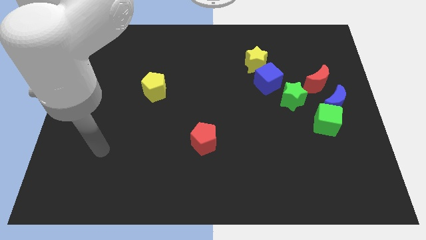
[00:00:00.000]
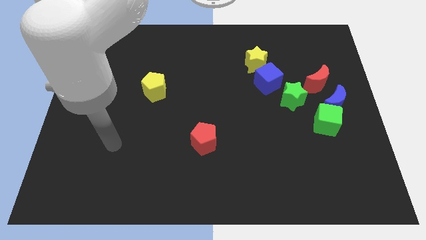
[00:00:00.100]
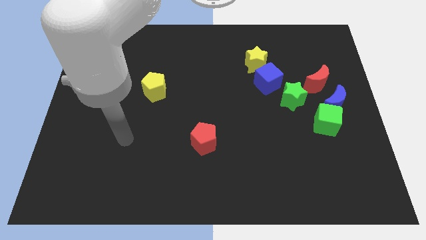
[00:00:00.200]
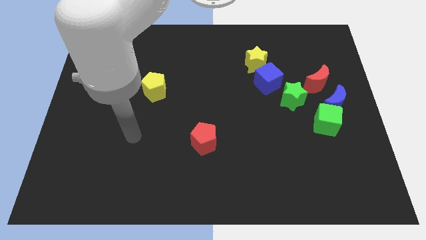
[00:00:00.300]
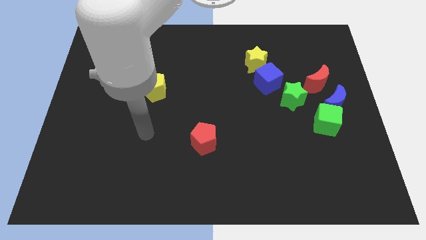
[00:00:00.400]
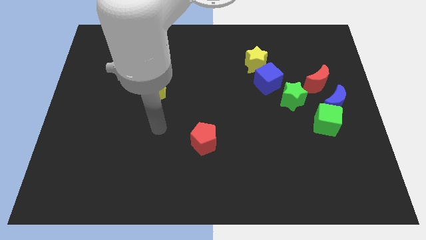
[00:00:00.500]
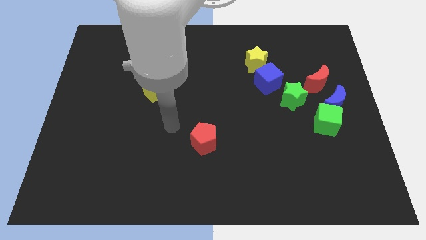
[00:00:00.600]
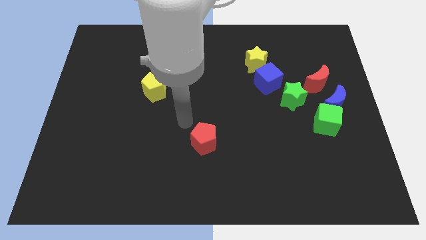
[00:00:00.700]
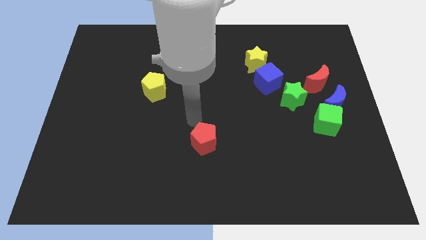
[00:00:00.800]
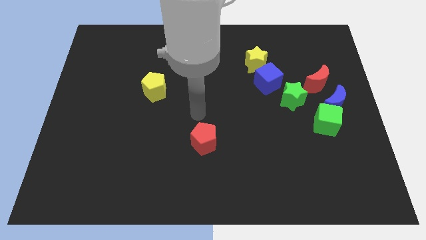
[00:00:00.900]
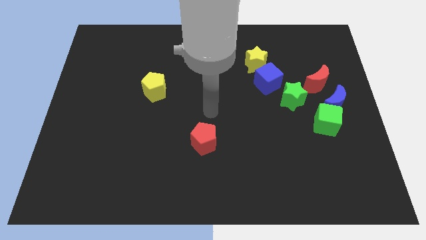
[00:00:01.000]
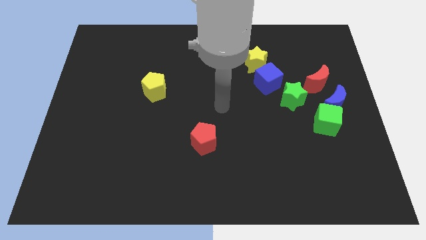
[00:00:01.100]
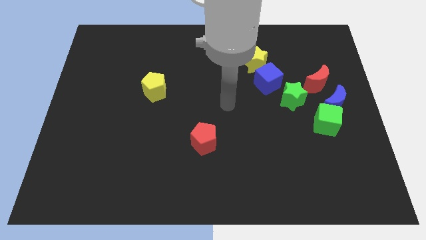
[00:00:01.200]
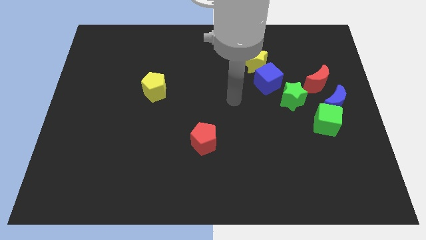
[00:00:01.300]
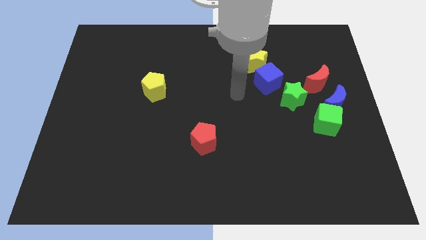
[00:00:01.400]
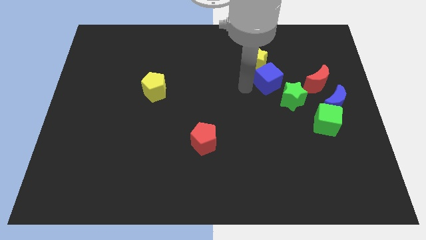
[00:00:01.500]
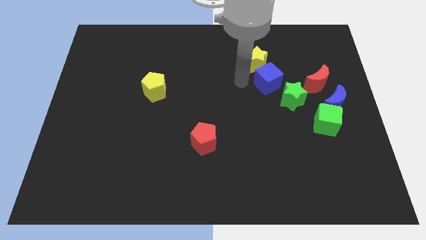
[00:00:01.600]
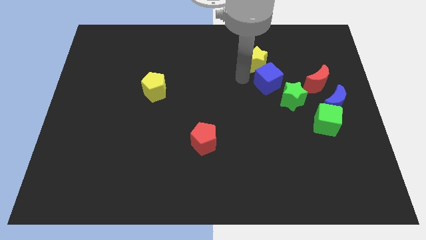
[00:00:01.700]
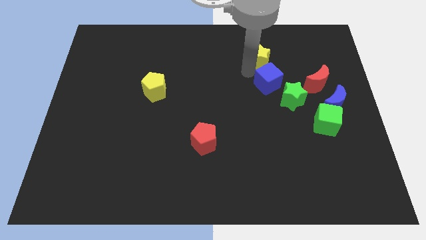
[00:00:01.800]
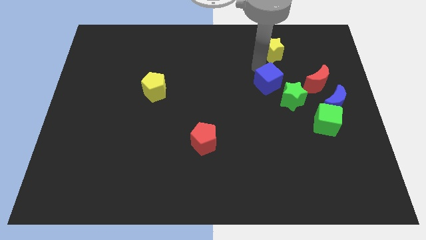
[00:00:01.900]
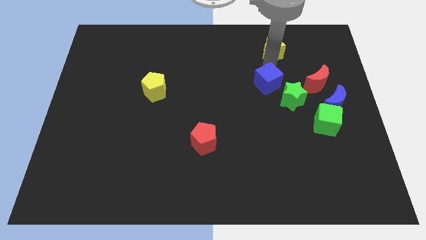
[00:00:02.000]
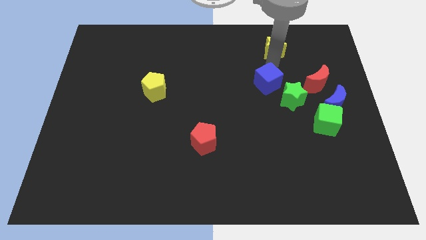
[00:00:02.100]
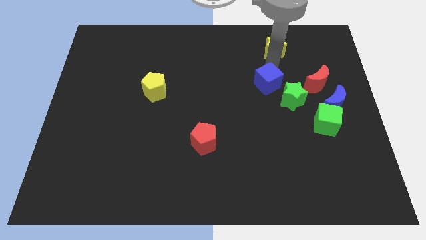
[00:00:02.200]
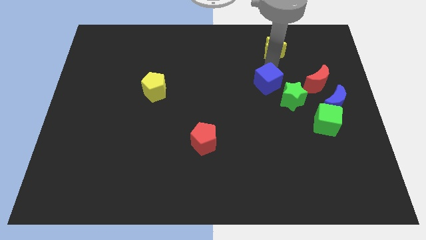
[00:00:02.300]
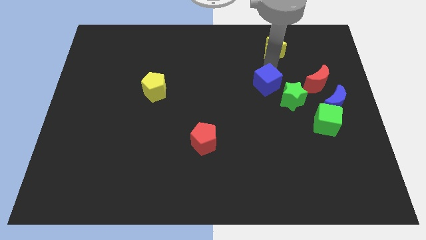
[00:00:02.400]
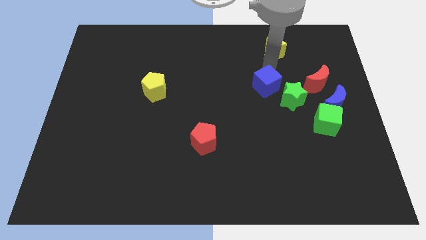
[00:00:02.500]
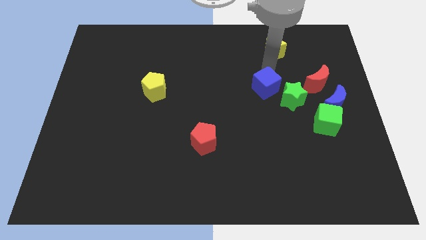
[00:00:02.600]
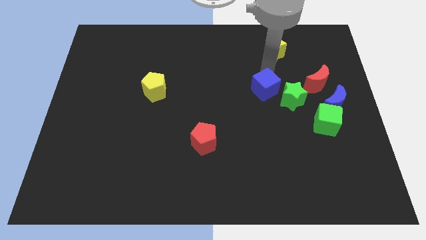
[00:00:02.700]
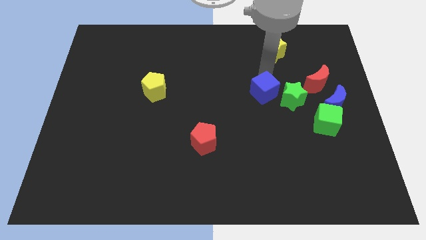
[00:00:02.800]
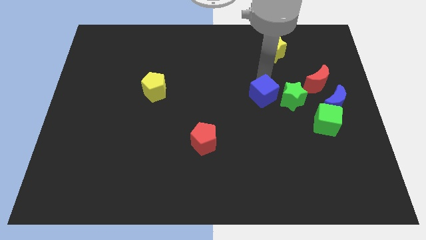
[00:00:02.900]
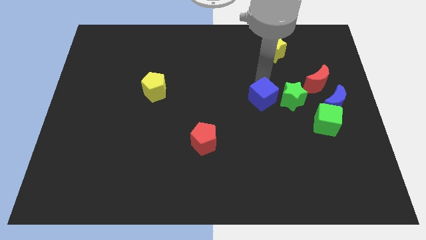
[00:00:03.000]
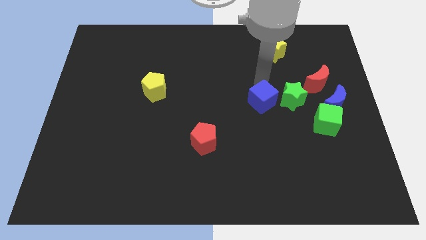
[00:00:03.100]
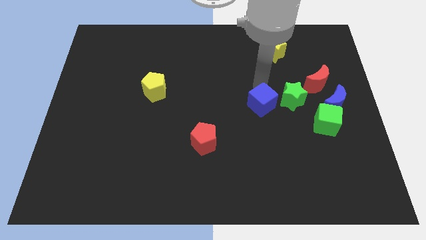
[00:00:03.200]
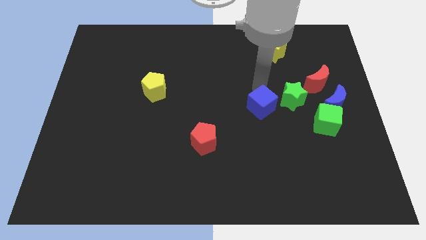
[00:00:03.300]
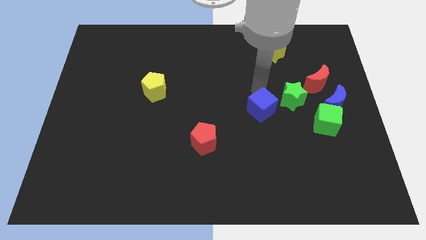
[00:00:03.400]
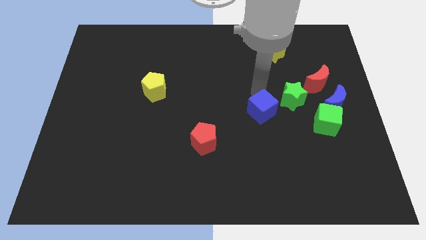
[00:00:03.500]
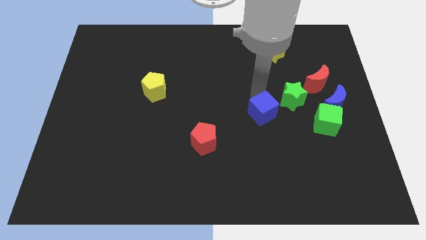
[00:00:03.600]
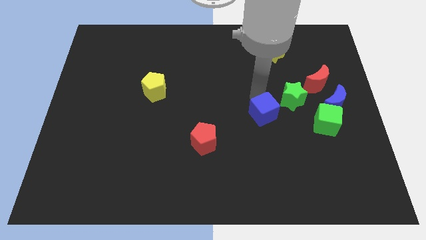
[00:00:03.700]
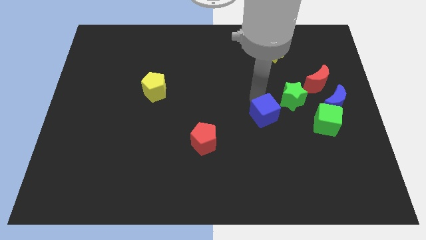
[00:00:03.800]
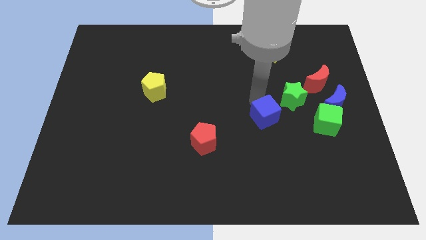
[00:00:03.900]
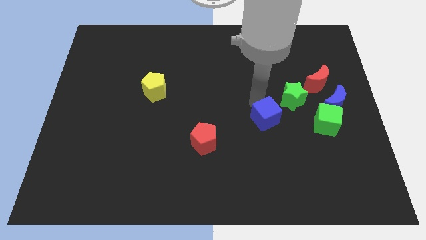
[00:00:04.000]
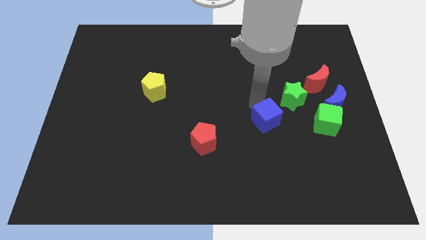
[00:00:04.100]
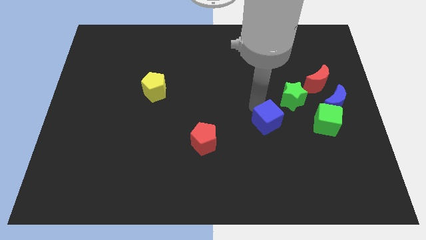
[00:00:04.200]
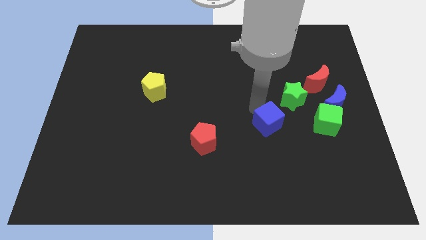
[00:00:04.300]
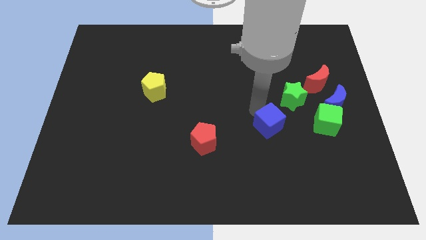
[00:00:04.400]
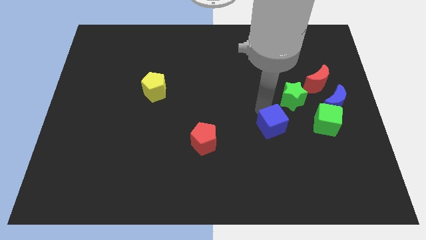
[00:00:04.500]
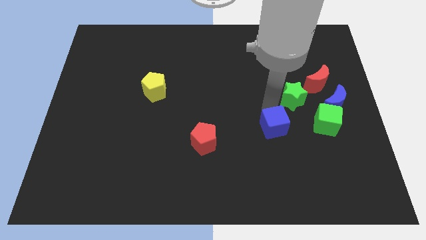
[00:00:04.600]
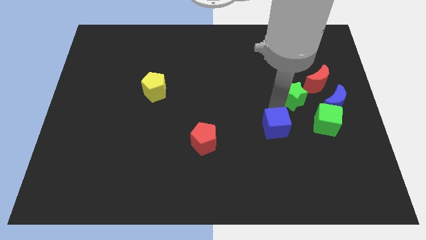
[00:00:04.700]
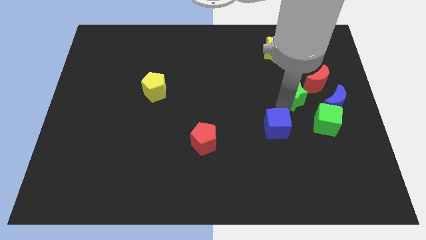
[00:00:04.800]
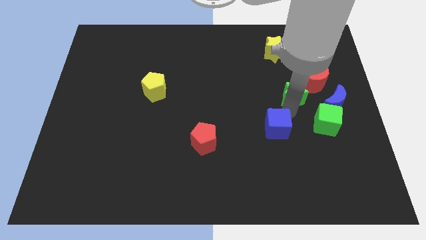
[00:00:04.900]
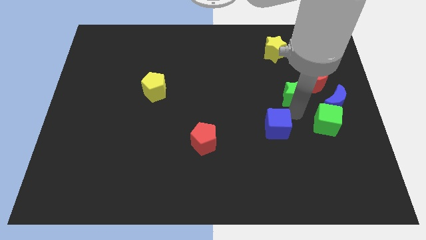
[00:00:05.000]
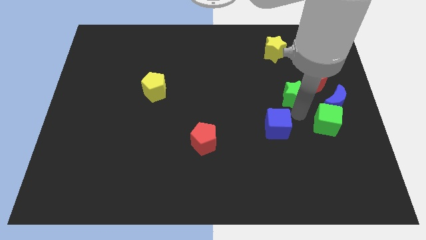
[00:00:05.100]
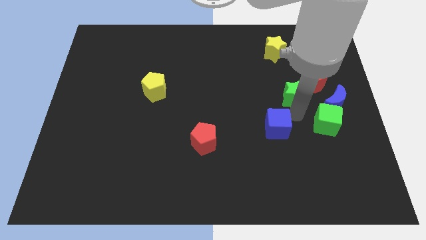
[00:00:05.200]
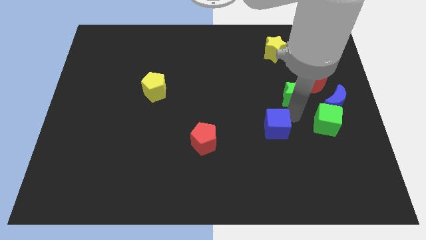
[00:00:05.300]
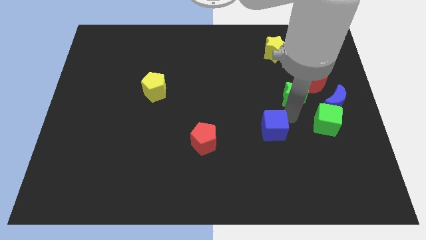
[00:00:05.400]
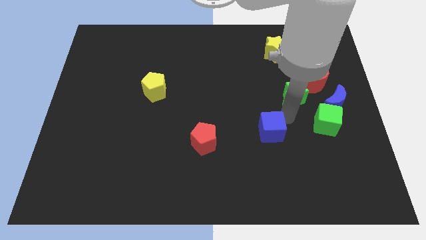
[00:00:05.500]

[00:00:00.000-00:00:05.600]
push the blue cube just right of the red pentagon
